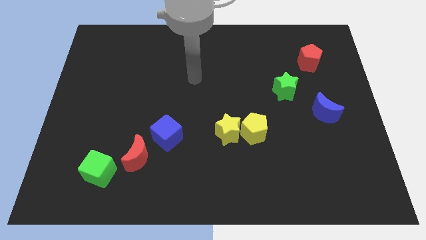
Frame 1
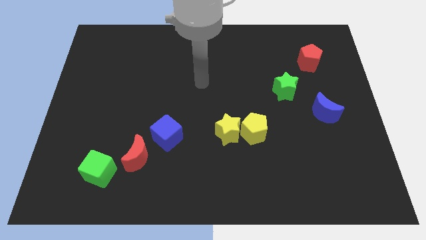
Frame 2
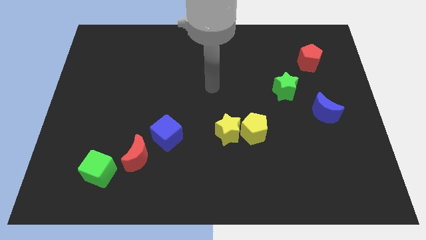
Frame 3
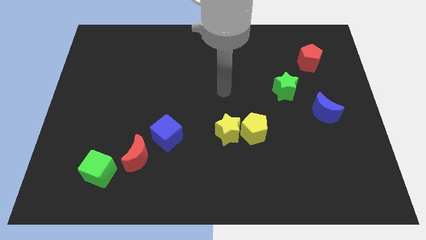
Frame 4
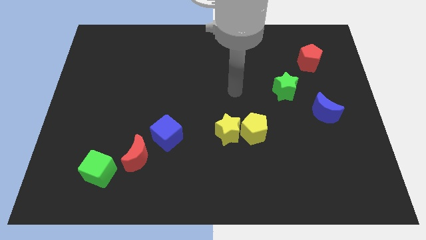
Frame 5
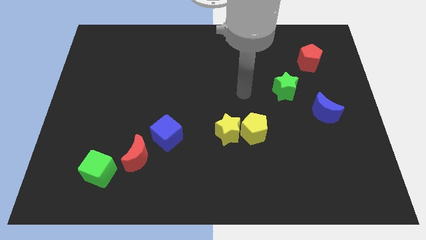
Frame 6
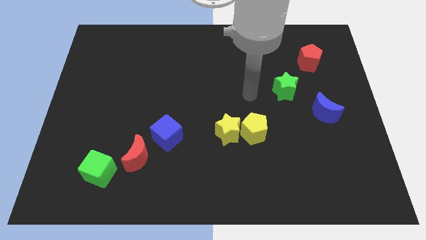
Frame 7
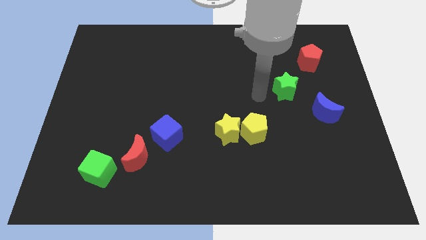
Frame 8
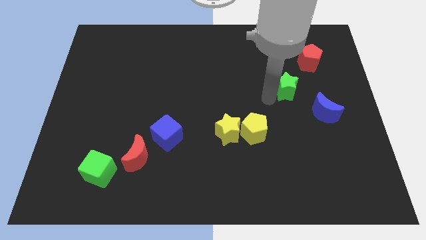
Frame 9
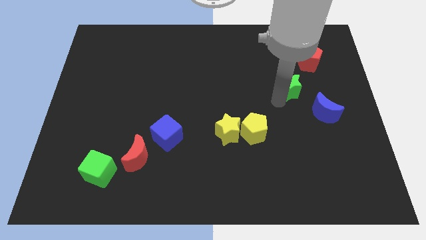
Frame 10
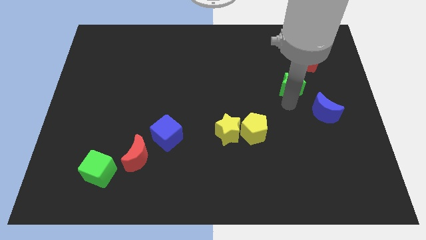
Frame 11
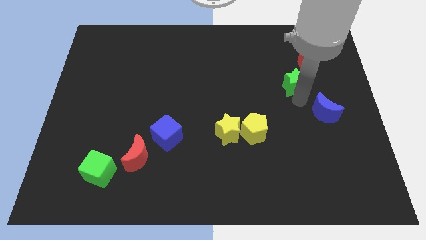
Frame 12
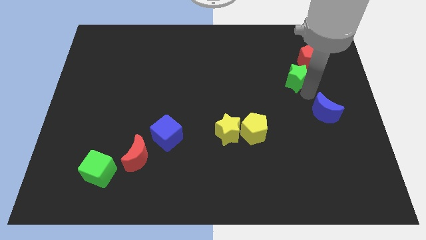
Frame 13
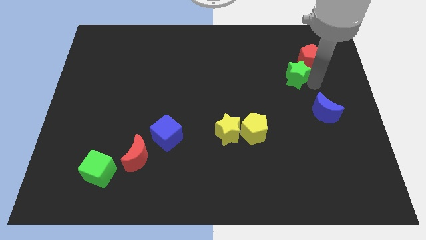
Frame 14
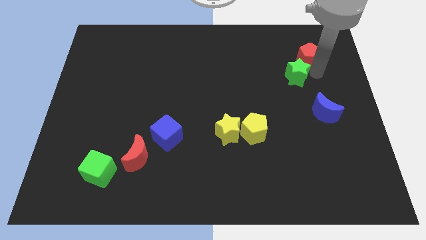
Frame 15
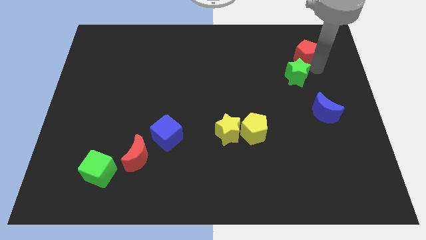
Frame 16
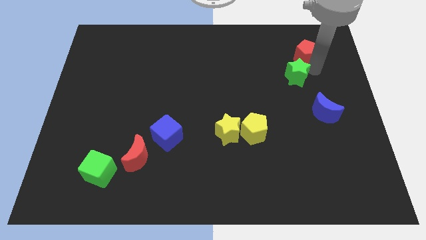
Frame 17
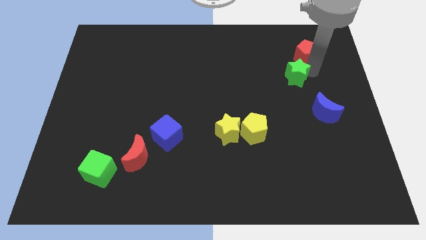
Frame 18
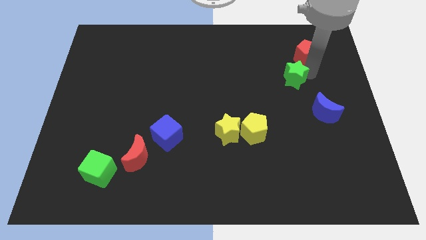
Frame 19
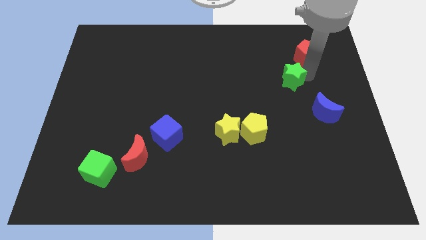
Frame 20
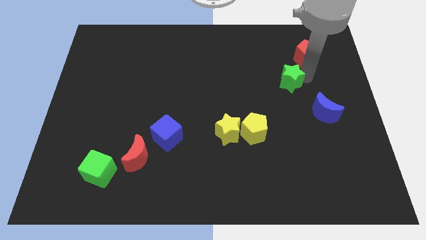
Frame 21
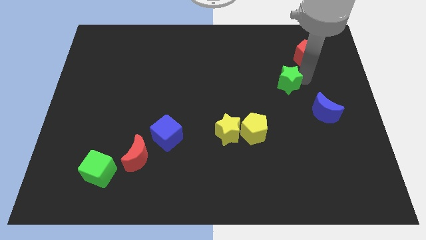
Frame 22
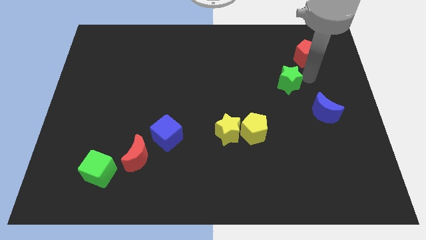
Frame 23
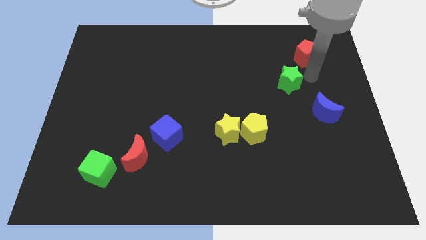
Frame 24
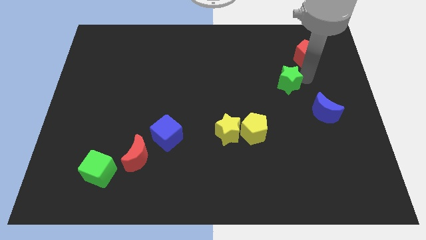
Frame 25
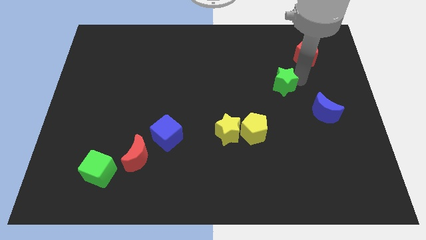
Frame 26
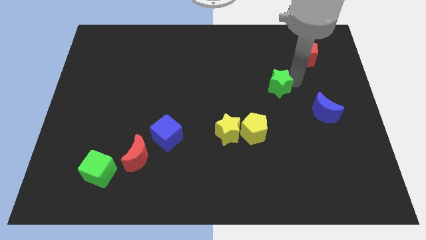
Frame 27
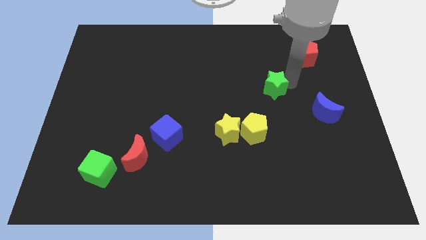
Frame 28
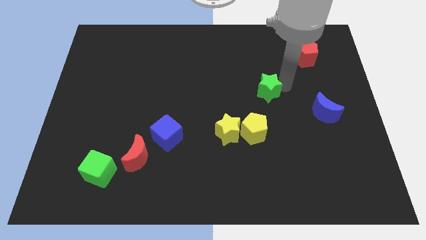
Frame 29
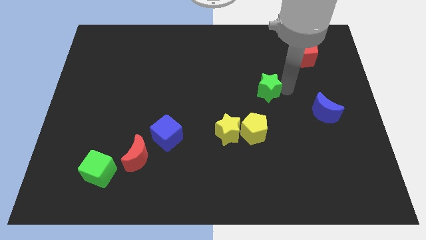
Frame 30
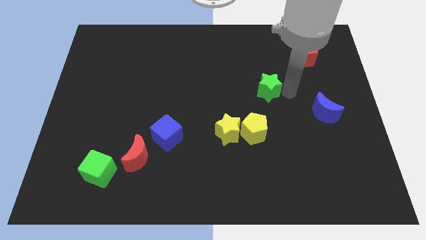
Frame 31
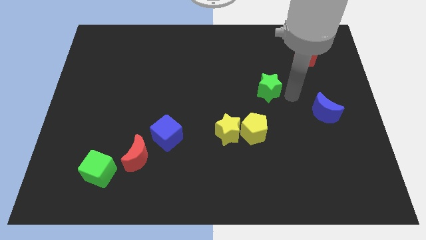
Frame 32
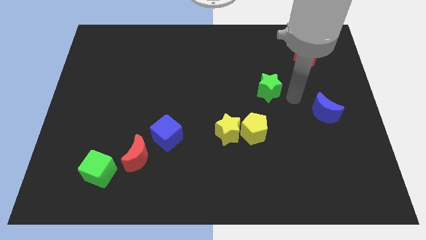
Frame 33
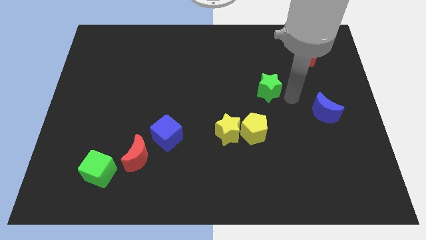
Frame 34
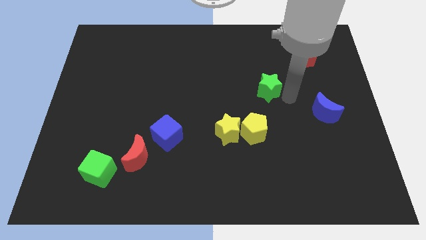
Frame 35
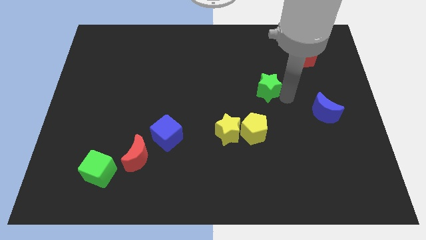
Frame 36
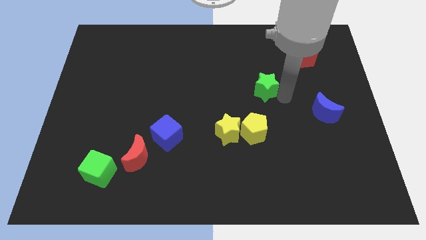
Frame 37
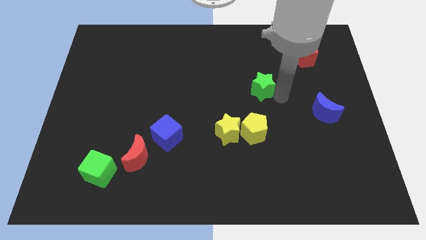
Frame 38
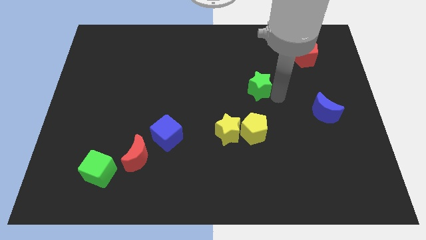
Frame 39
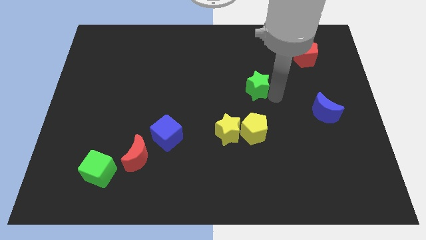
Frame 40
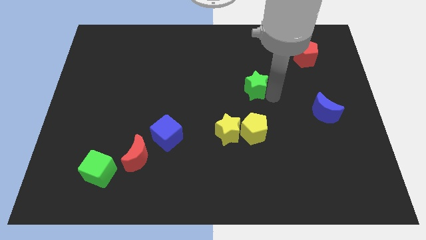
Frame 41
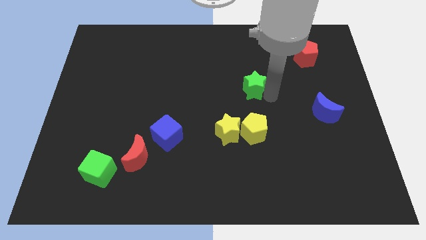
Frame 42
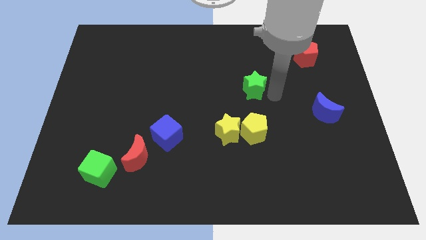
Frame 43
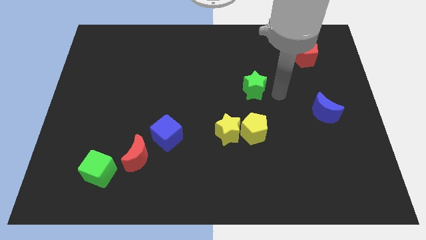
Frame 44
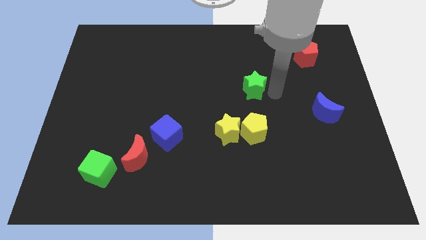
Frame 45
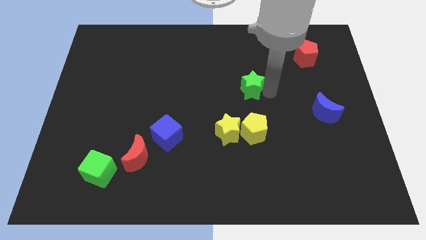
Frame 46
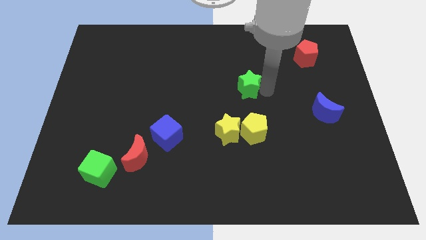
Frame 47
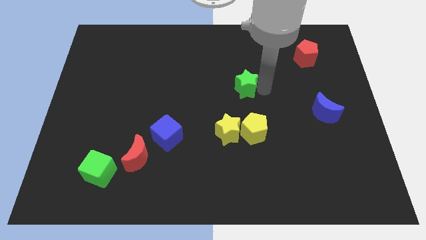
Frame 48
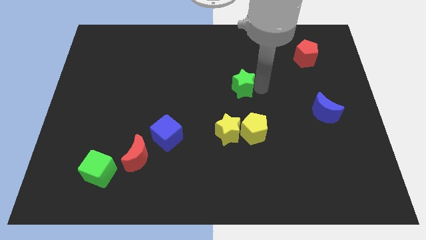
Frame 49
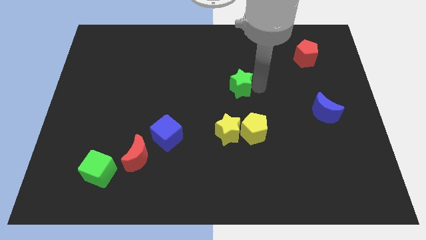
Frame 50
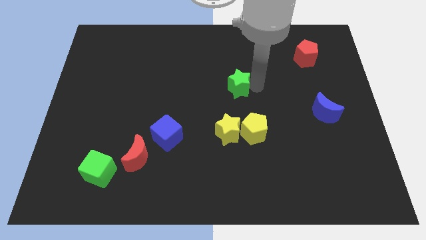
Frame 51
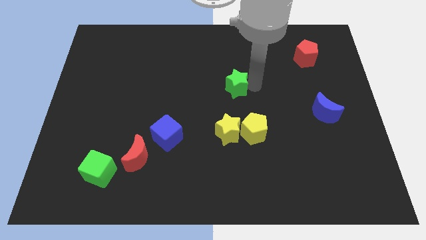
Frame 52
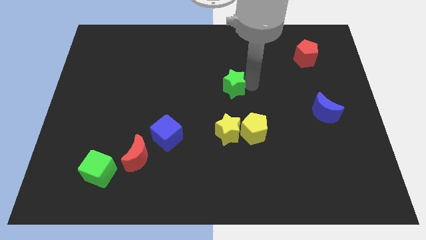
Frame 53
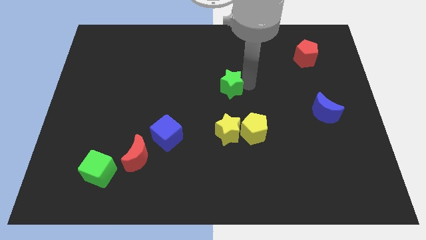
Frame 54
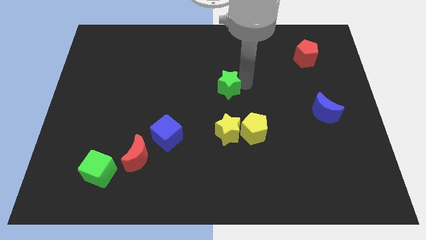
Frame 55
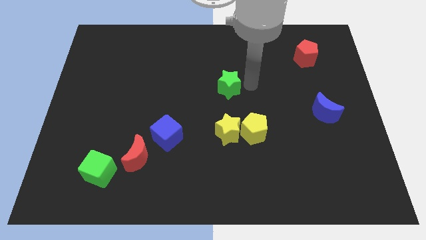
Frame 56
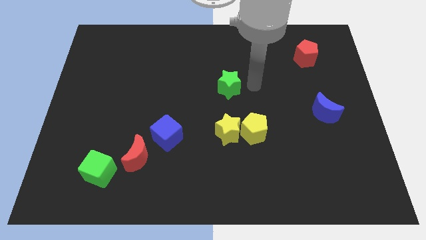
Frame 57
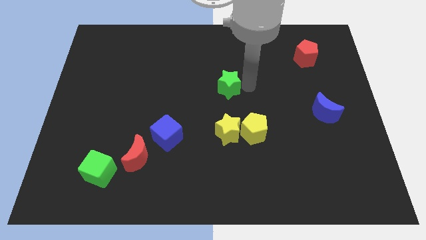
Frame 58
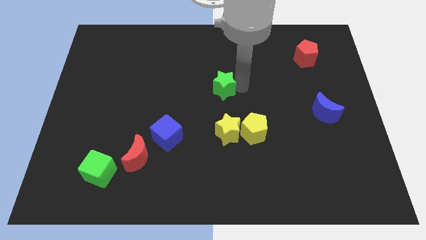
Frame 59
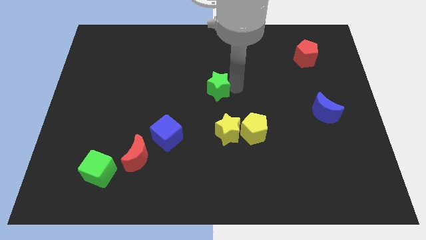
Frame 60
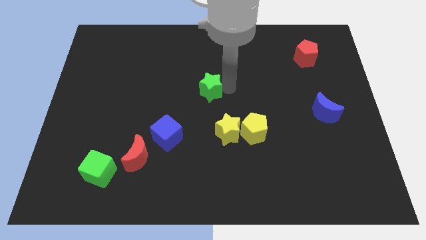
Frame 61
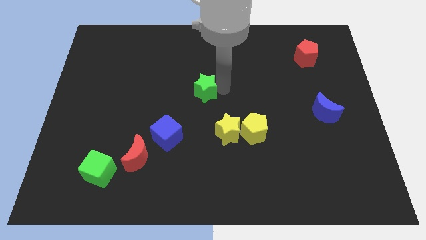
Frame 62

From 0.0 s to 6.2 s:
move the green star left

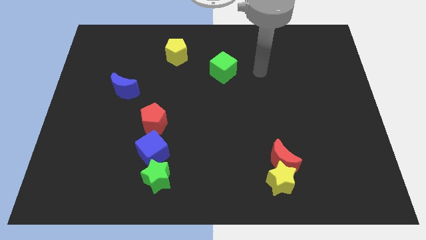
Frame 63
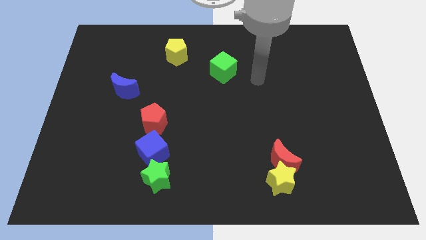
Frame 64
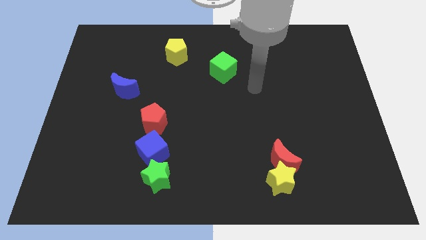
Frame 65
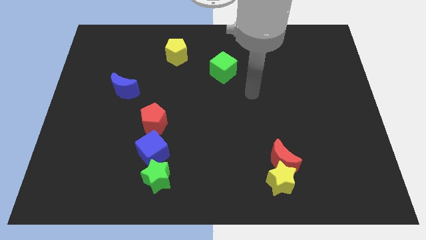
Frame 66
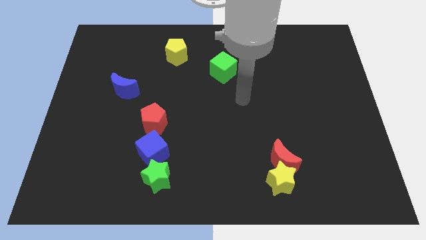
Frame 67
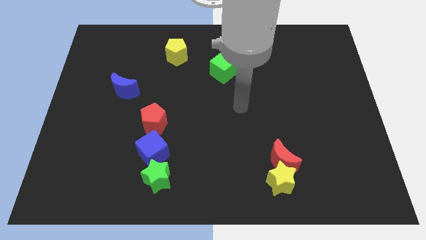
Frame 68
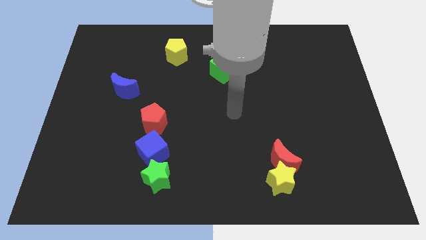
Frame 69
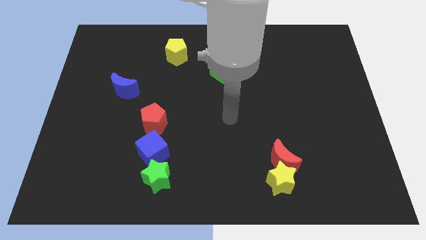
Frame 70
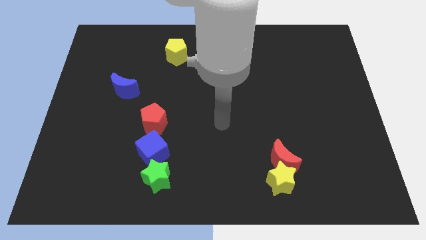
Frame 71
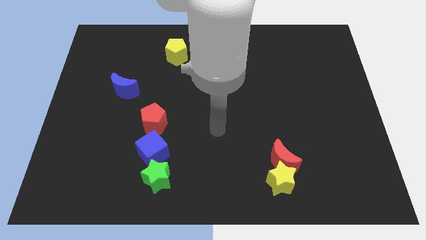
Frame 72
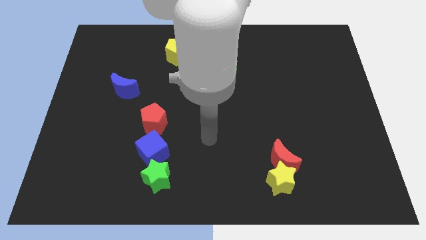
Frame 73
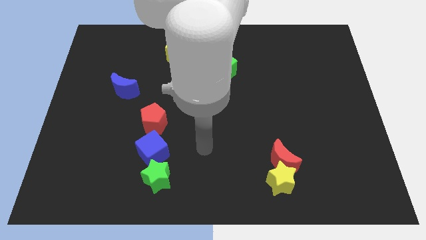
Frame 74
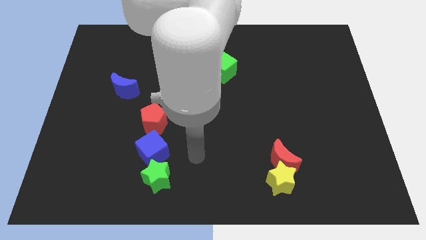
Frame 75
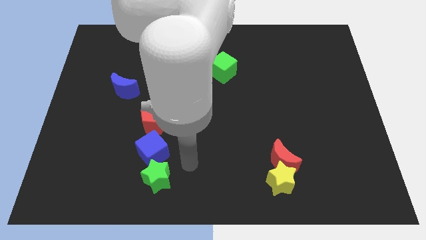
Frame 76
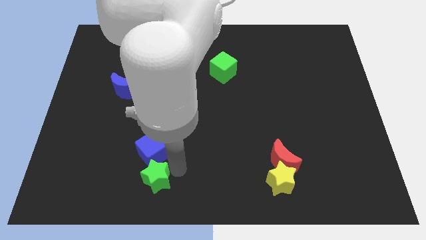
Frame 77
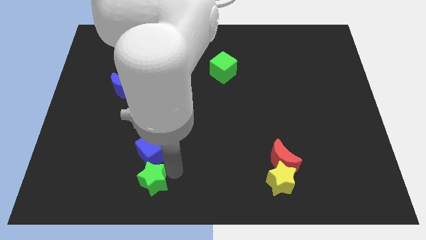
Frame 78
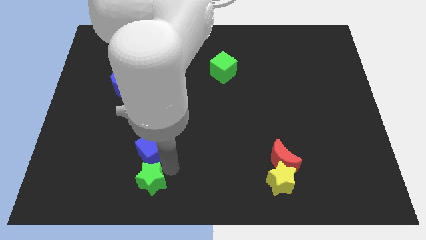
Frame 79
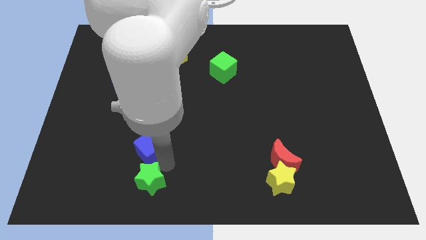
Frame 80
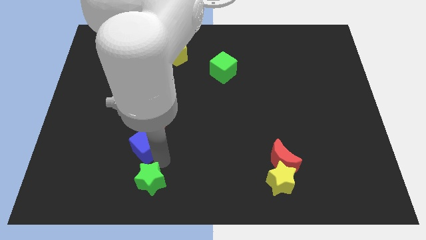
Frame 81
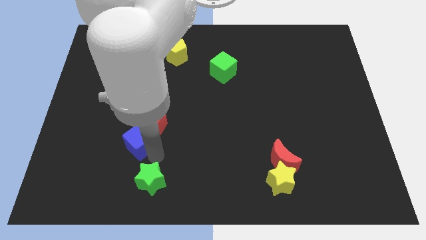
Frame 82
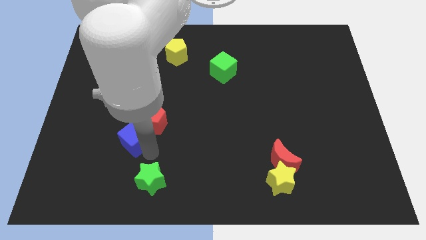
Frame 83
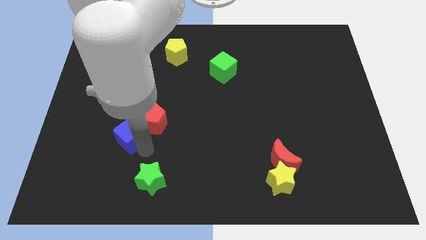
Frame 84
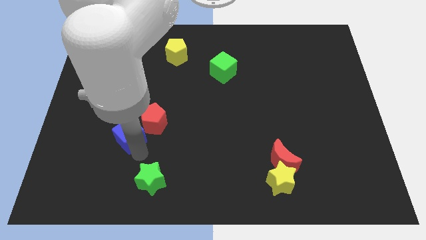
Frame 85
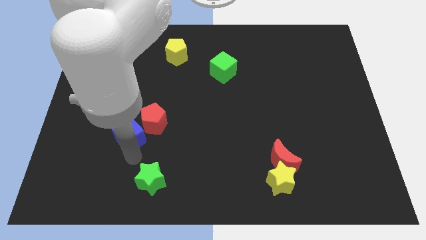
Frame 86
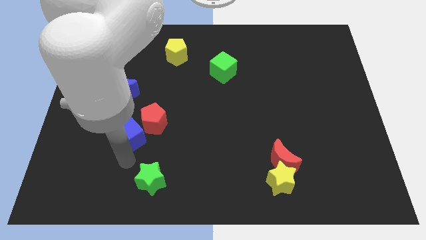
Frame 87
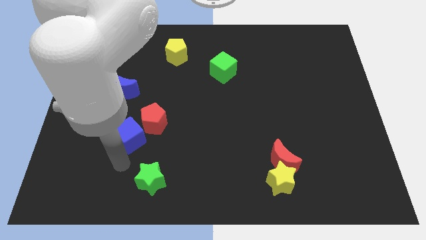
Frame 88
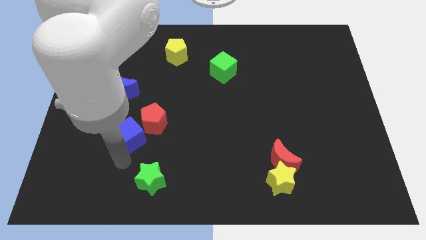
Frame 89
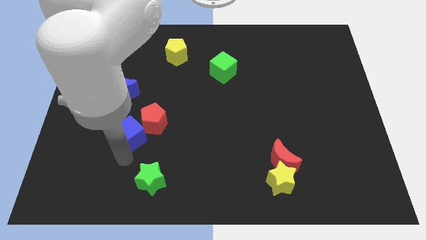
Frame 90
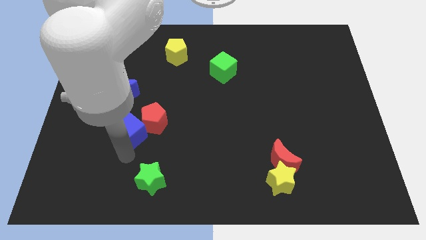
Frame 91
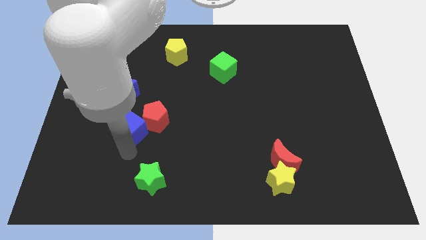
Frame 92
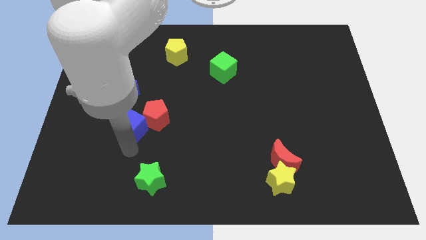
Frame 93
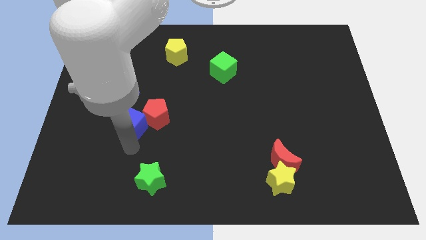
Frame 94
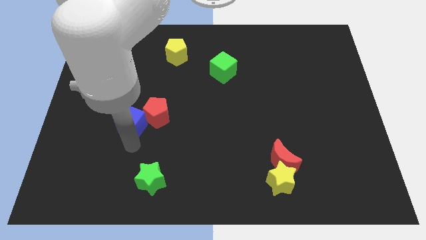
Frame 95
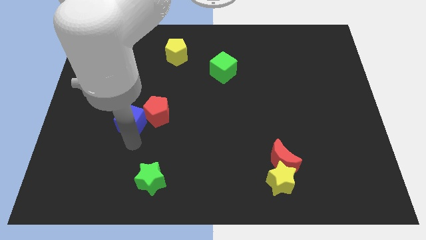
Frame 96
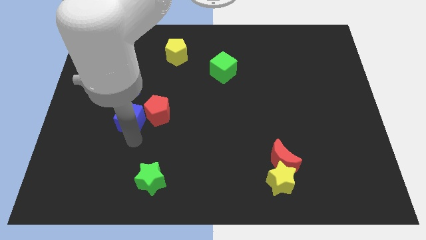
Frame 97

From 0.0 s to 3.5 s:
slightly move the blue cube up
